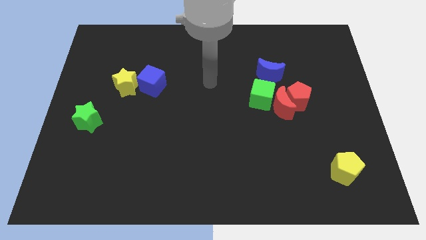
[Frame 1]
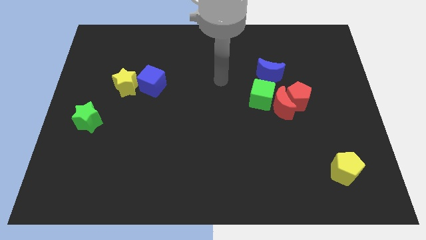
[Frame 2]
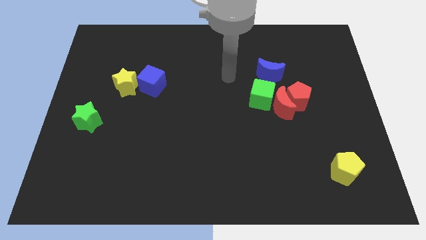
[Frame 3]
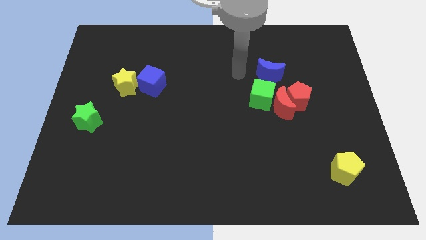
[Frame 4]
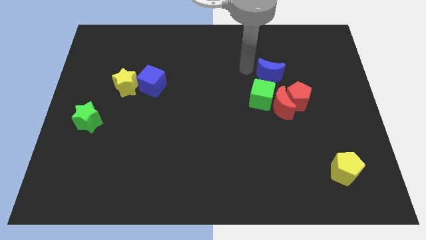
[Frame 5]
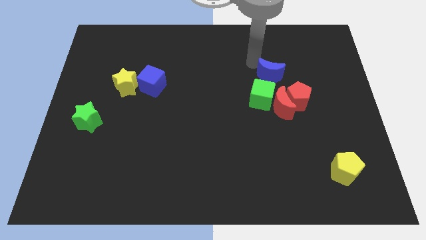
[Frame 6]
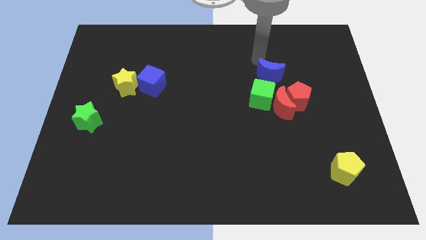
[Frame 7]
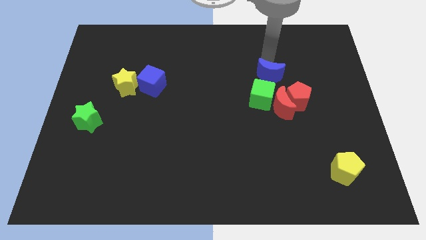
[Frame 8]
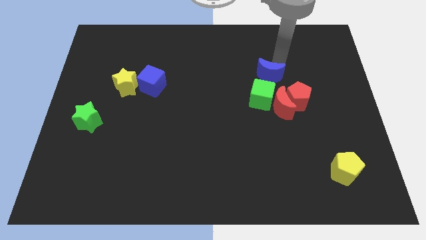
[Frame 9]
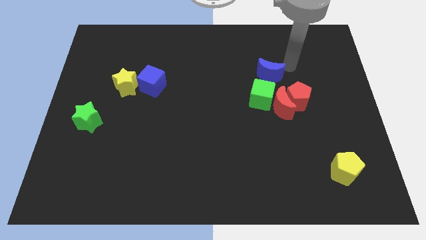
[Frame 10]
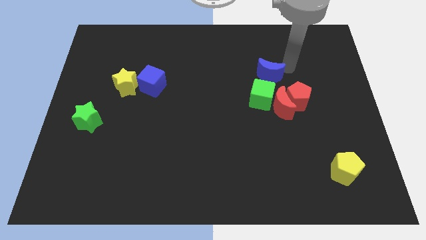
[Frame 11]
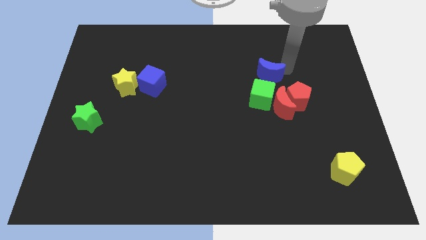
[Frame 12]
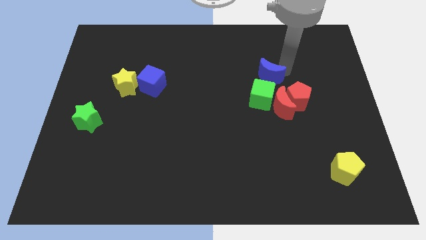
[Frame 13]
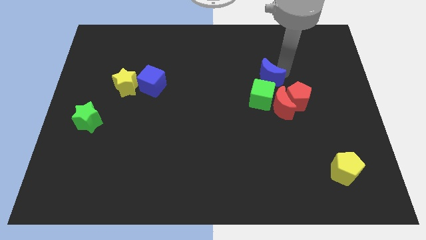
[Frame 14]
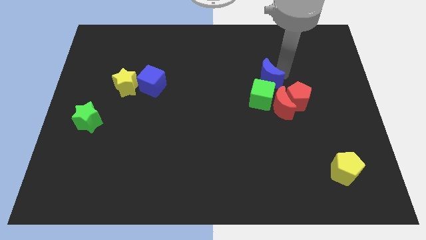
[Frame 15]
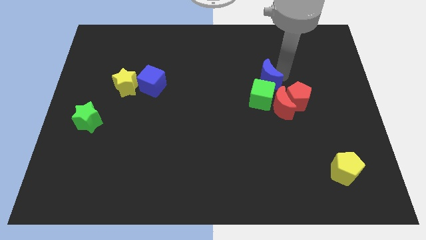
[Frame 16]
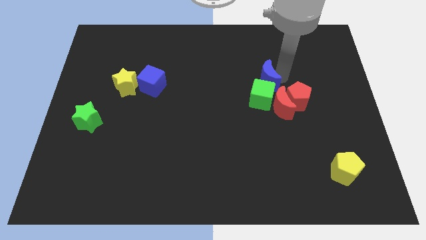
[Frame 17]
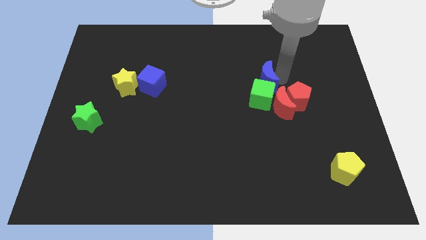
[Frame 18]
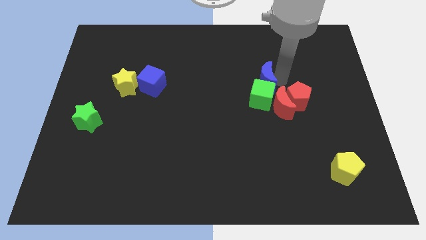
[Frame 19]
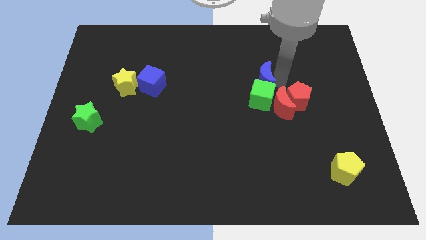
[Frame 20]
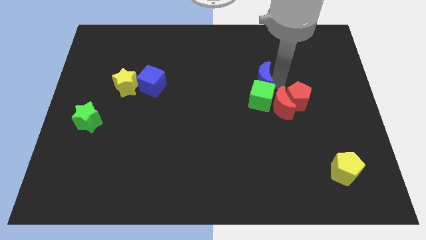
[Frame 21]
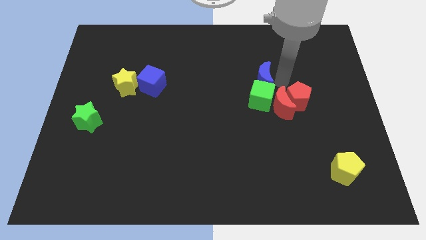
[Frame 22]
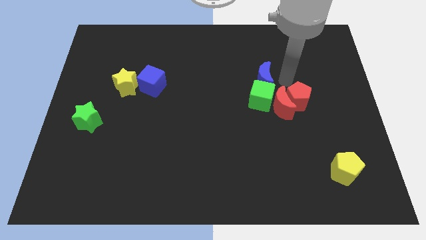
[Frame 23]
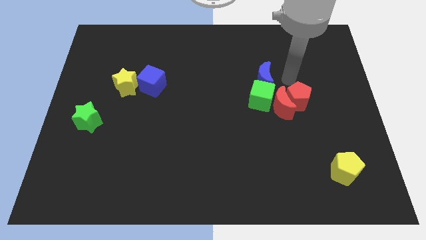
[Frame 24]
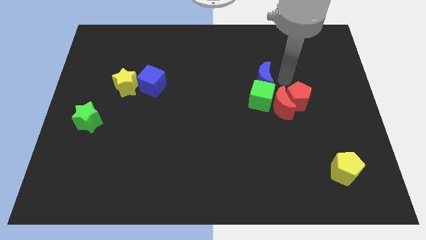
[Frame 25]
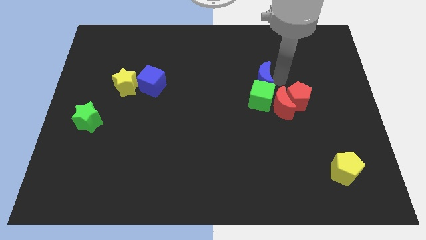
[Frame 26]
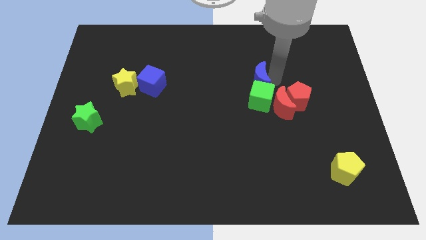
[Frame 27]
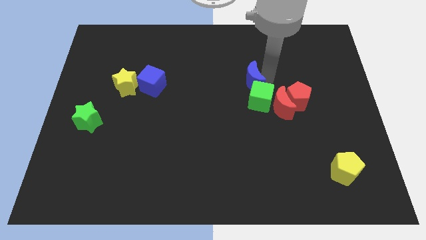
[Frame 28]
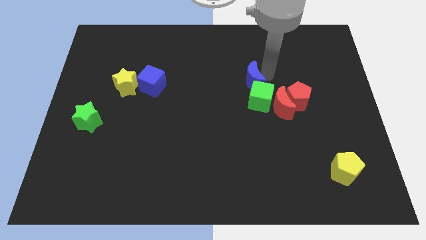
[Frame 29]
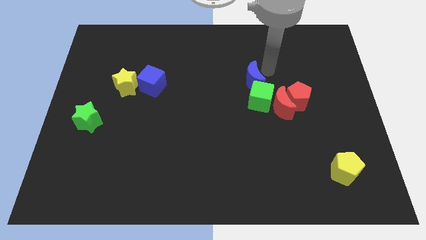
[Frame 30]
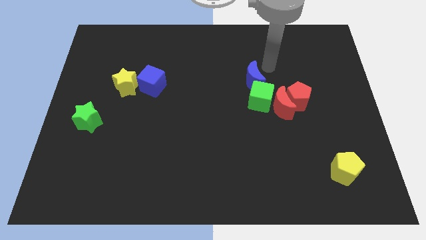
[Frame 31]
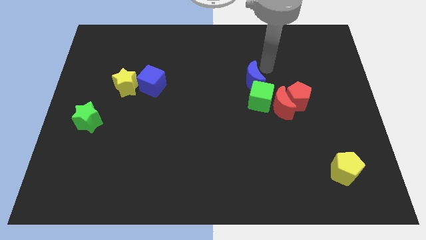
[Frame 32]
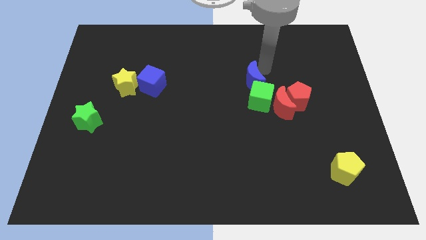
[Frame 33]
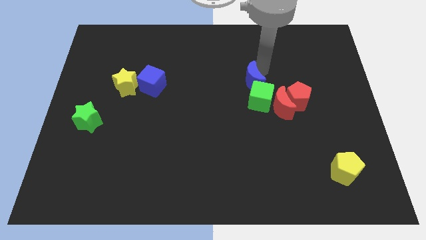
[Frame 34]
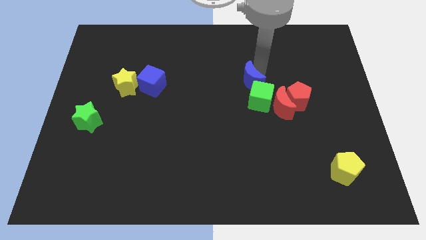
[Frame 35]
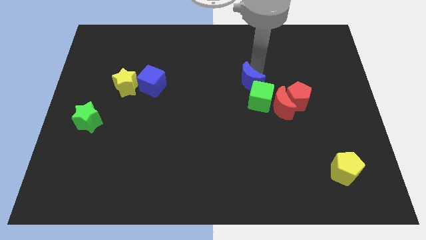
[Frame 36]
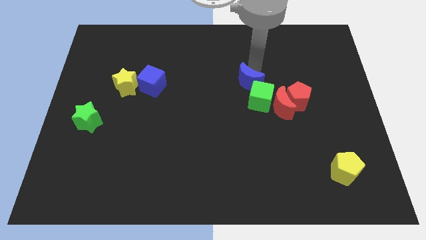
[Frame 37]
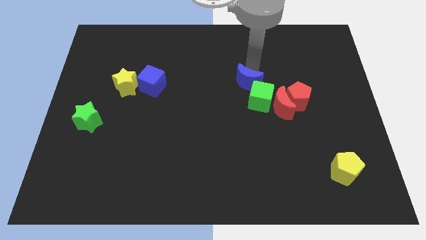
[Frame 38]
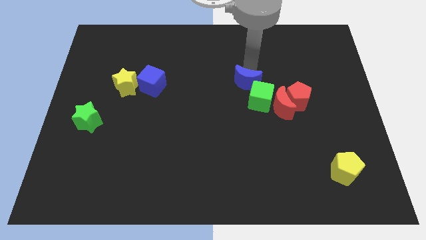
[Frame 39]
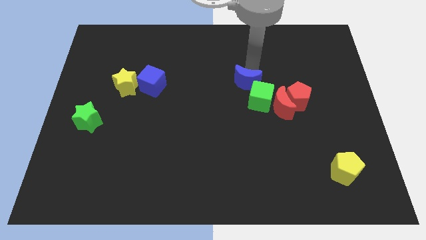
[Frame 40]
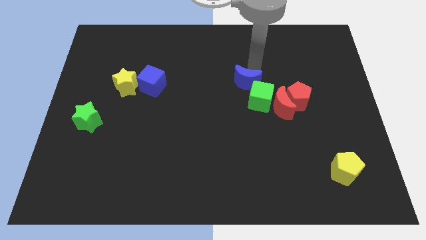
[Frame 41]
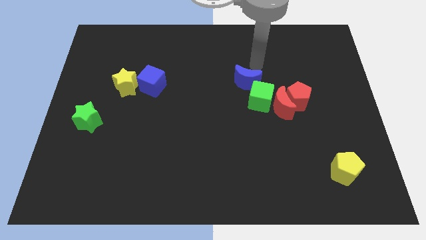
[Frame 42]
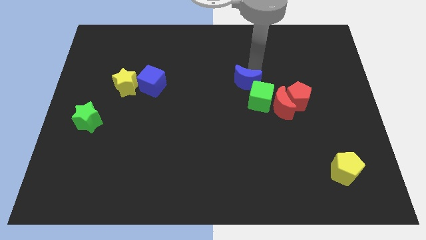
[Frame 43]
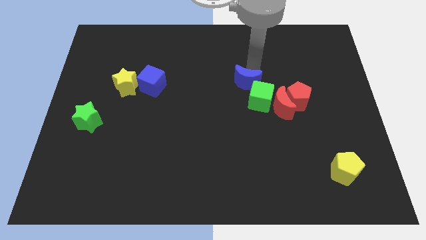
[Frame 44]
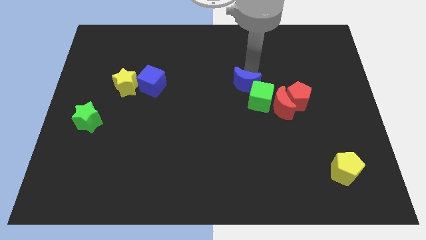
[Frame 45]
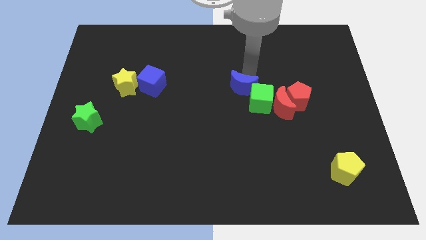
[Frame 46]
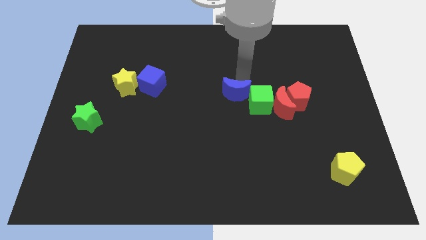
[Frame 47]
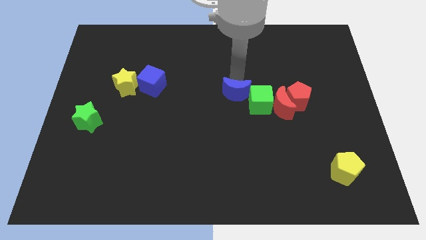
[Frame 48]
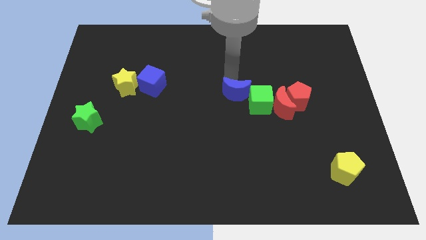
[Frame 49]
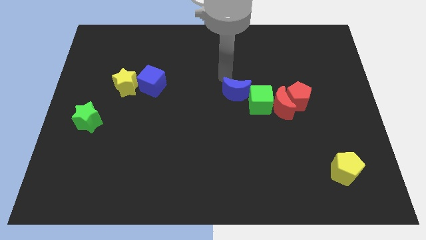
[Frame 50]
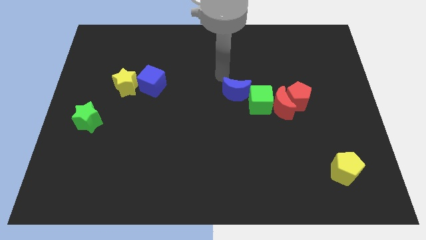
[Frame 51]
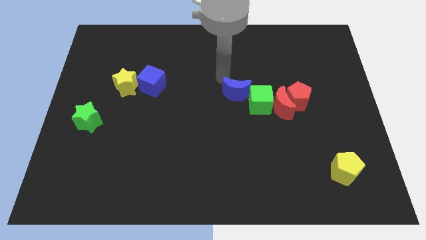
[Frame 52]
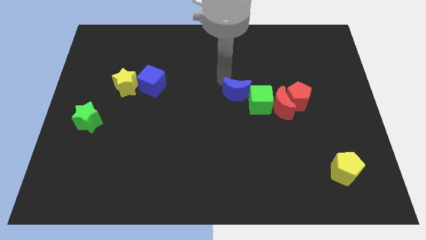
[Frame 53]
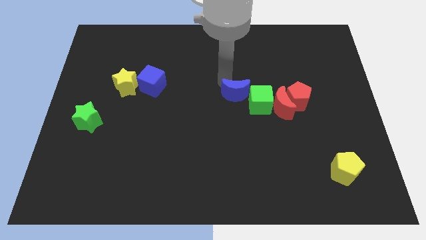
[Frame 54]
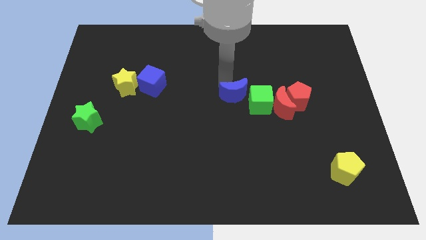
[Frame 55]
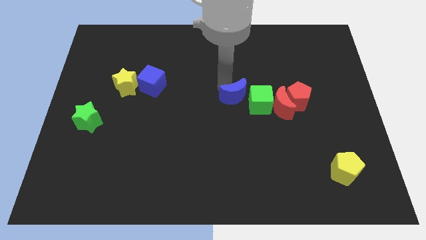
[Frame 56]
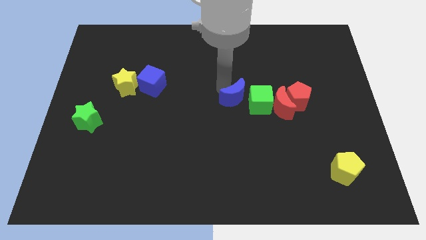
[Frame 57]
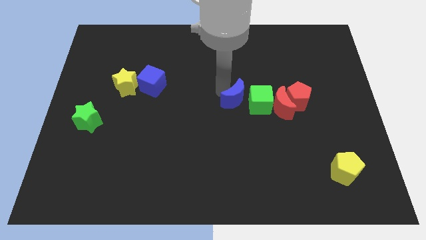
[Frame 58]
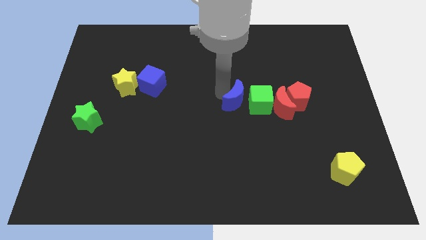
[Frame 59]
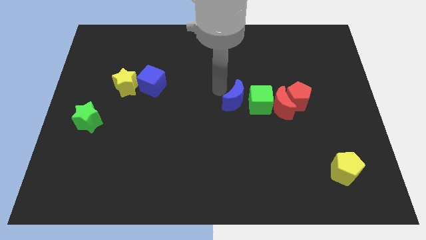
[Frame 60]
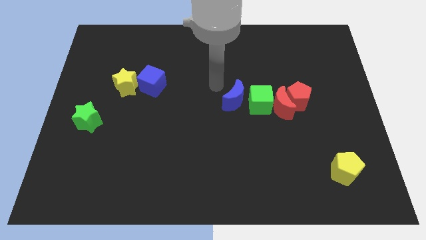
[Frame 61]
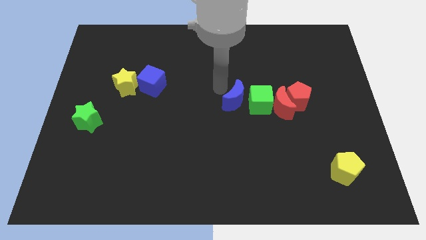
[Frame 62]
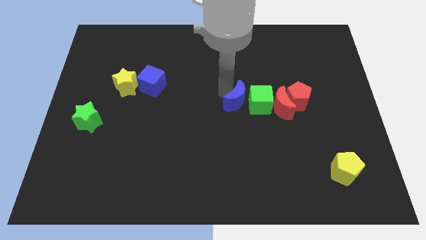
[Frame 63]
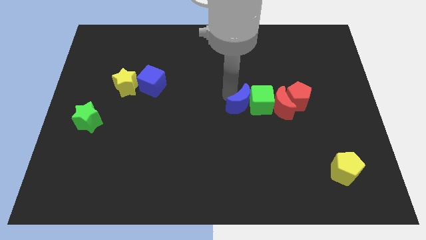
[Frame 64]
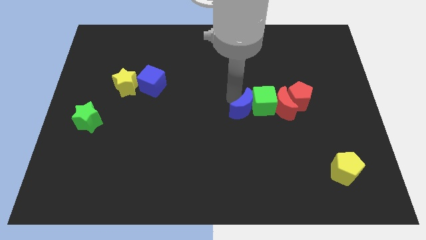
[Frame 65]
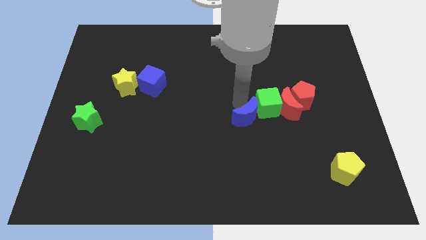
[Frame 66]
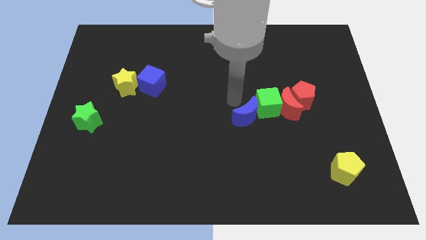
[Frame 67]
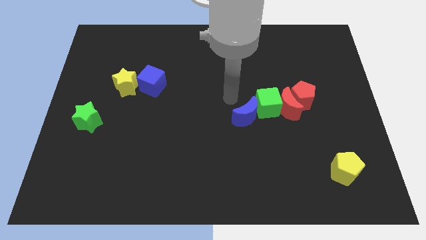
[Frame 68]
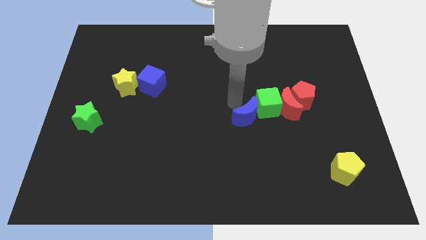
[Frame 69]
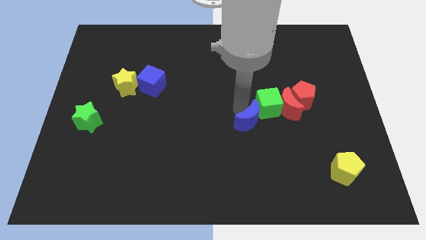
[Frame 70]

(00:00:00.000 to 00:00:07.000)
slide the blue moon to the bottom side of the green cube
